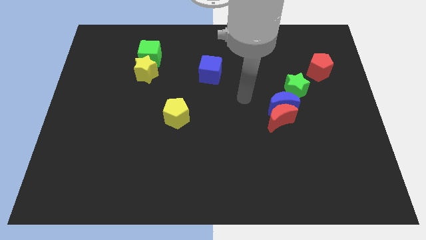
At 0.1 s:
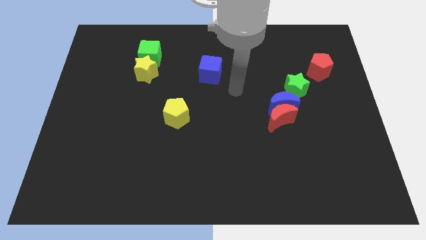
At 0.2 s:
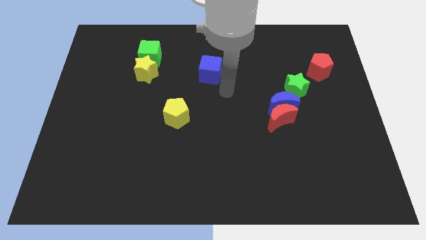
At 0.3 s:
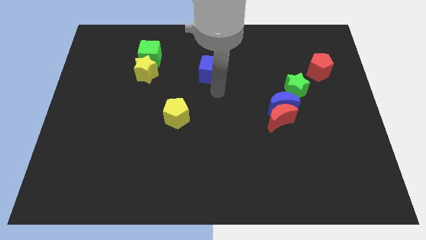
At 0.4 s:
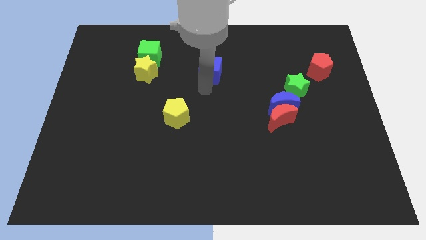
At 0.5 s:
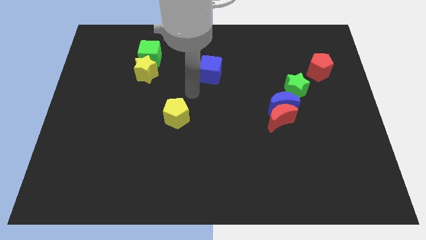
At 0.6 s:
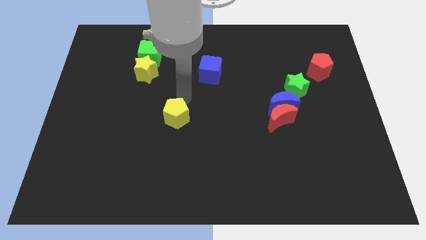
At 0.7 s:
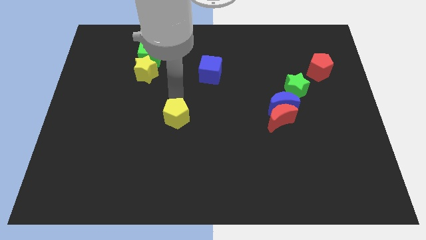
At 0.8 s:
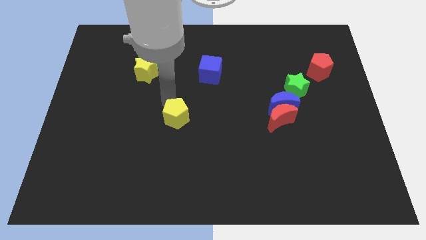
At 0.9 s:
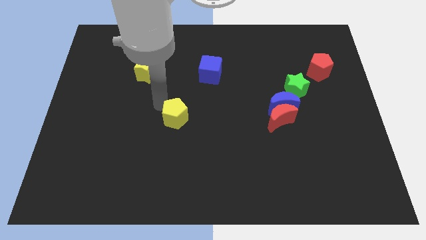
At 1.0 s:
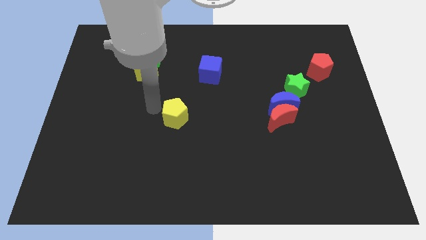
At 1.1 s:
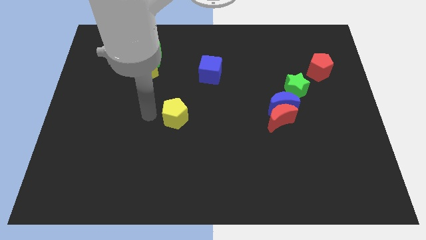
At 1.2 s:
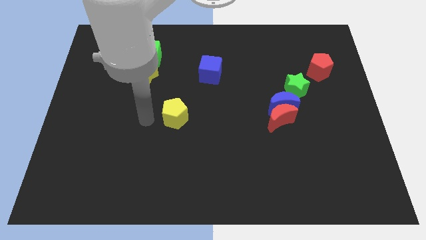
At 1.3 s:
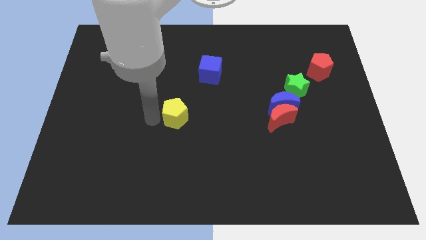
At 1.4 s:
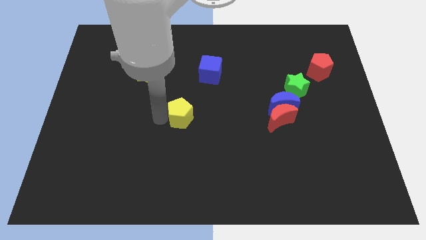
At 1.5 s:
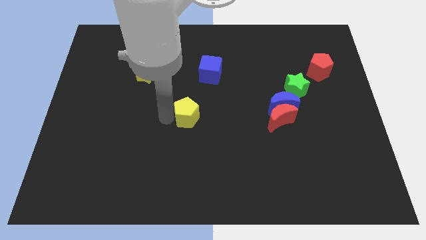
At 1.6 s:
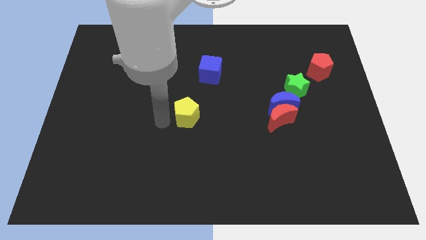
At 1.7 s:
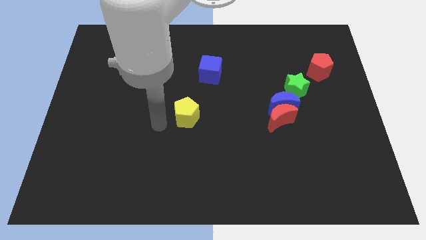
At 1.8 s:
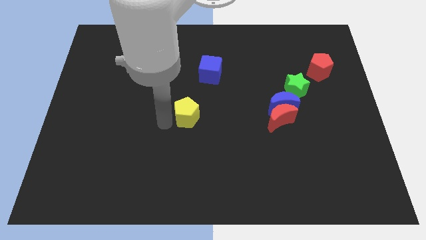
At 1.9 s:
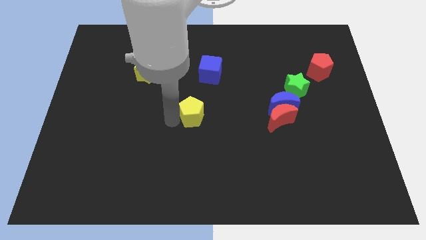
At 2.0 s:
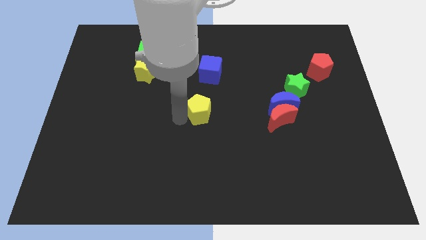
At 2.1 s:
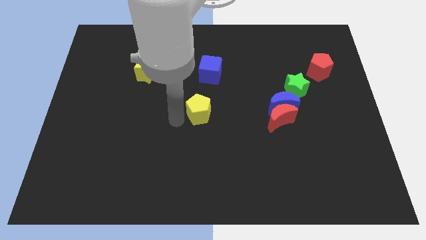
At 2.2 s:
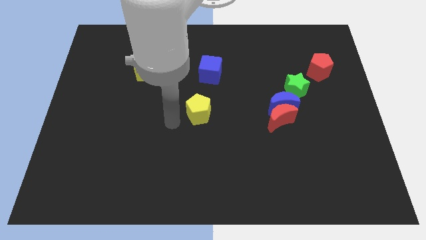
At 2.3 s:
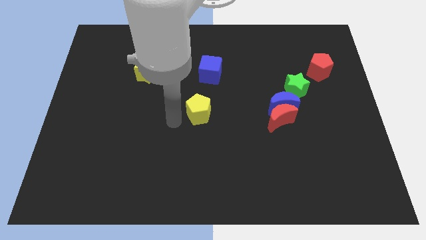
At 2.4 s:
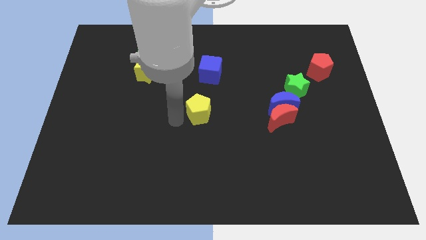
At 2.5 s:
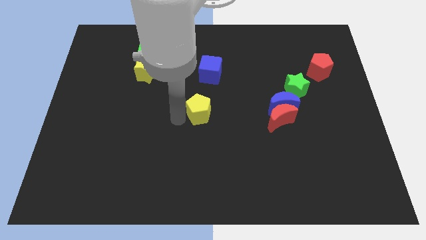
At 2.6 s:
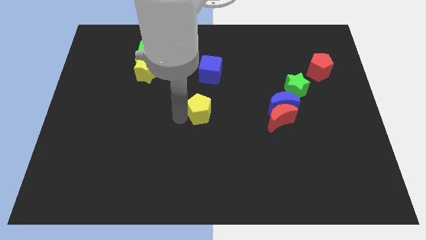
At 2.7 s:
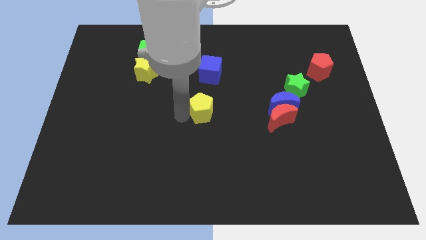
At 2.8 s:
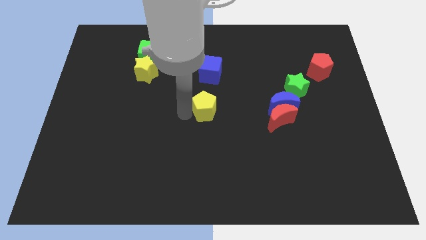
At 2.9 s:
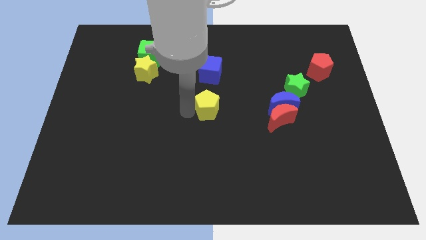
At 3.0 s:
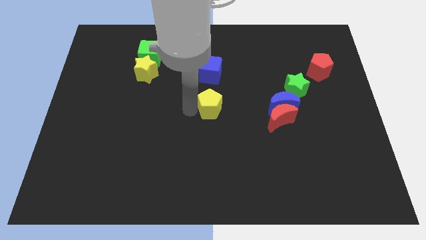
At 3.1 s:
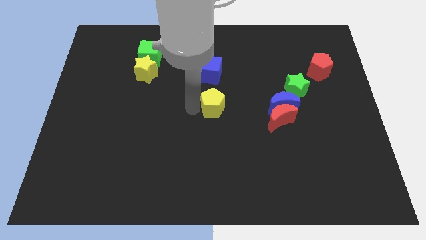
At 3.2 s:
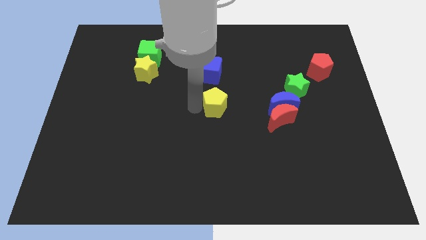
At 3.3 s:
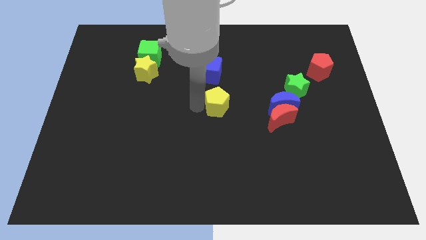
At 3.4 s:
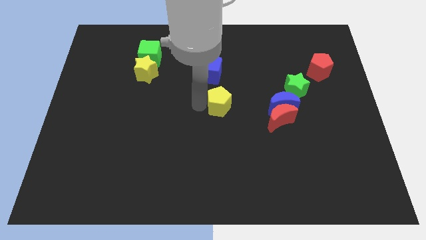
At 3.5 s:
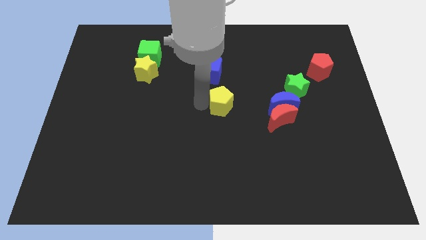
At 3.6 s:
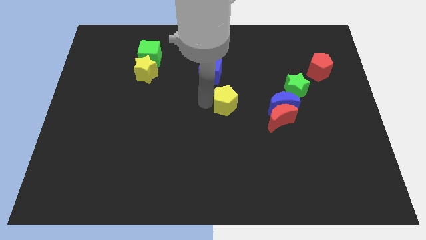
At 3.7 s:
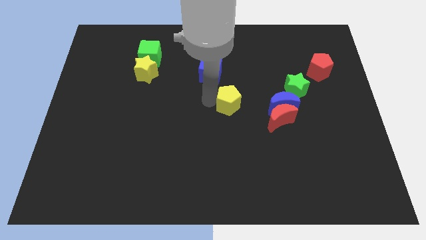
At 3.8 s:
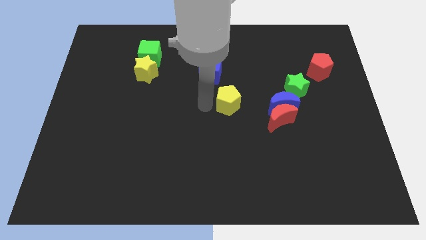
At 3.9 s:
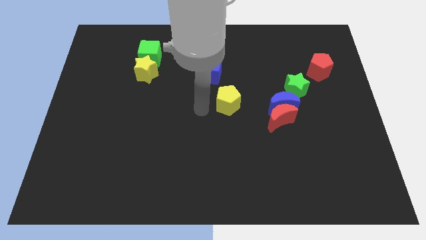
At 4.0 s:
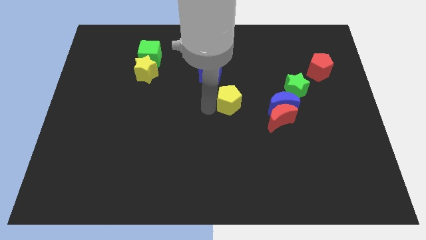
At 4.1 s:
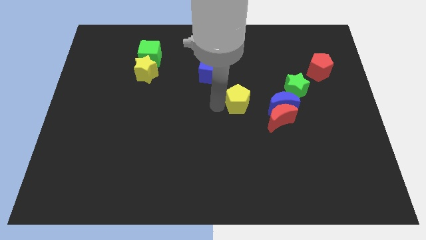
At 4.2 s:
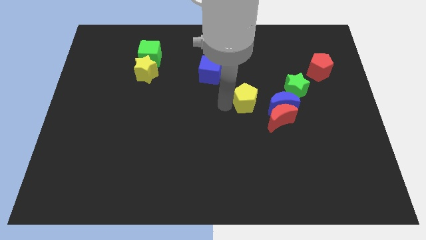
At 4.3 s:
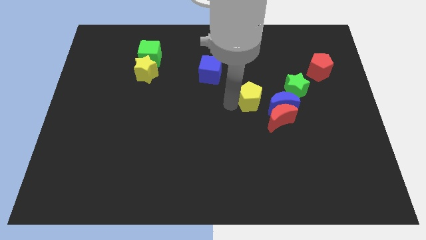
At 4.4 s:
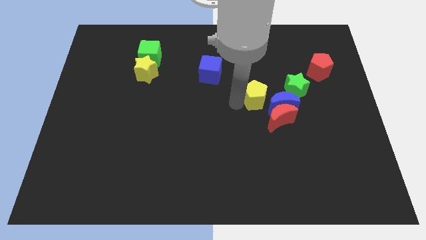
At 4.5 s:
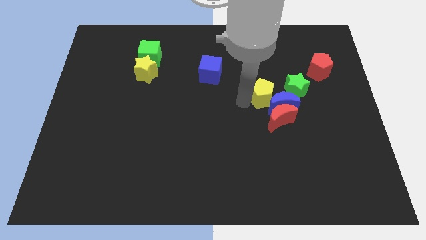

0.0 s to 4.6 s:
slide the yellow pentagon to the top of the red moon

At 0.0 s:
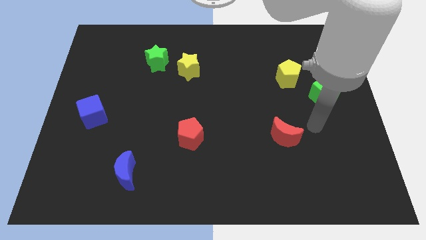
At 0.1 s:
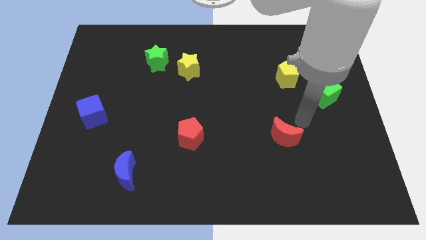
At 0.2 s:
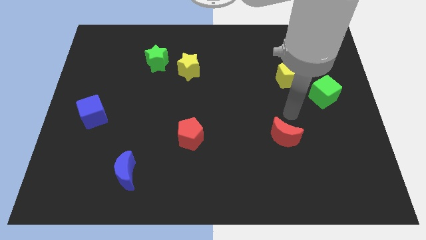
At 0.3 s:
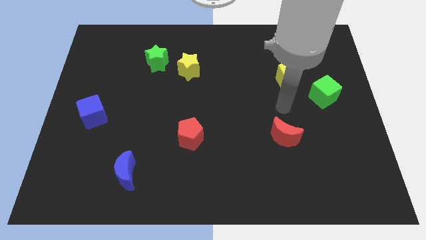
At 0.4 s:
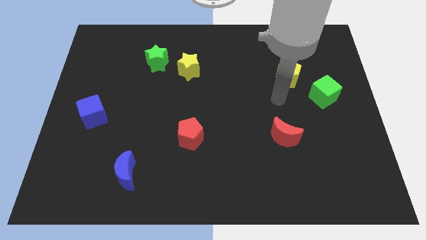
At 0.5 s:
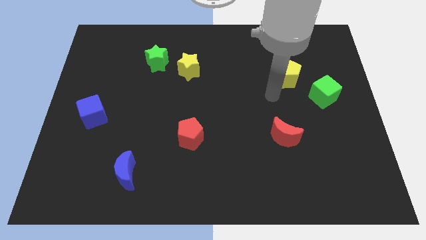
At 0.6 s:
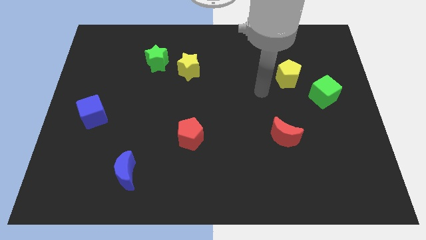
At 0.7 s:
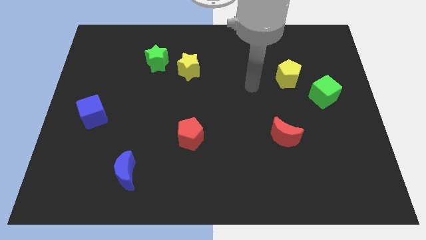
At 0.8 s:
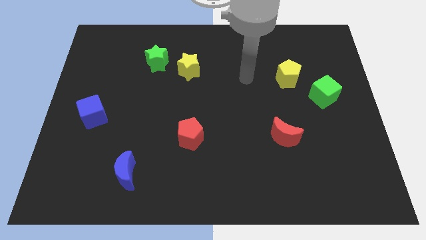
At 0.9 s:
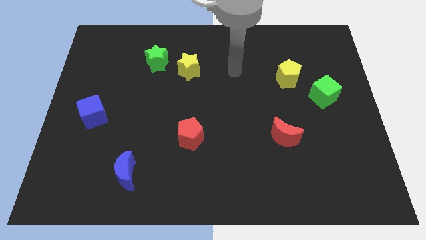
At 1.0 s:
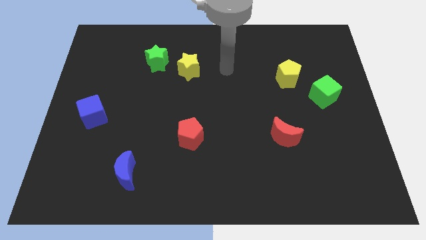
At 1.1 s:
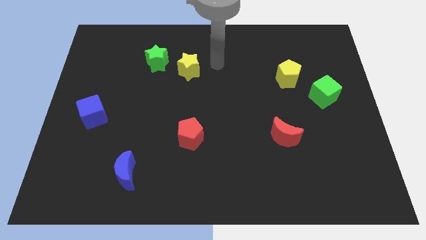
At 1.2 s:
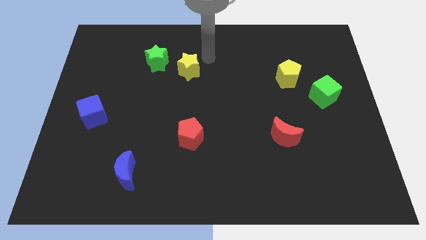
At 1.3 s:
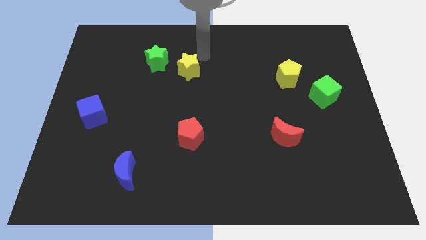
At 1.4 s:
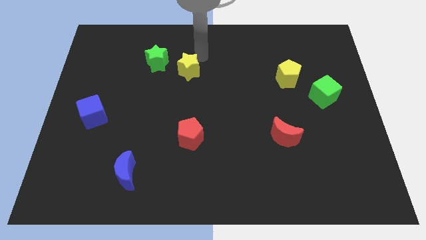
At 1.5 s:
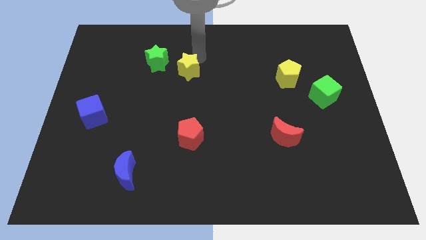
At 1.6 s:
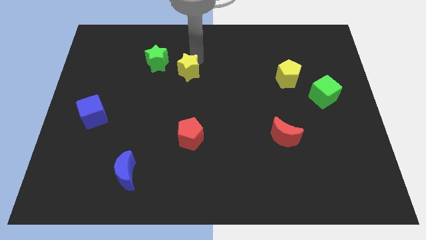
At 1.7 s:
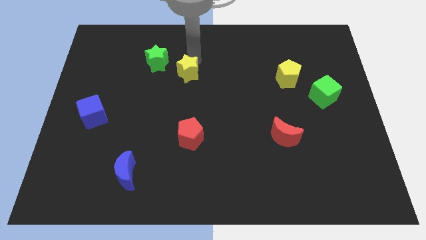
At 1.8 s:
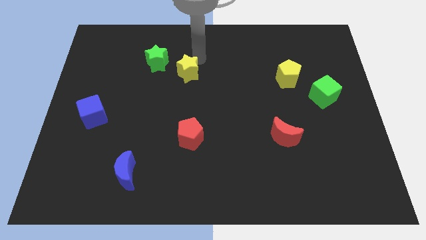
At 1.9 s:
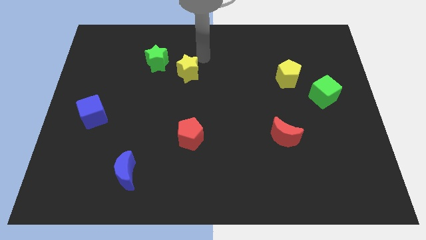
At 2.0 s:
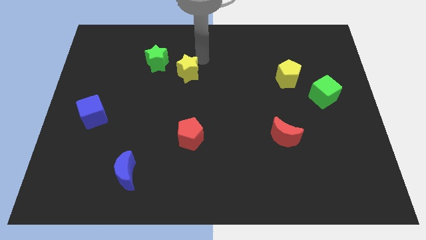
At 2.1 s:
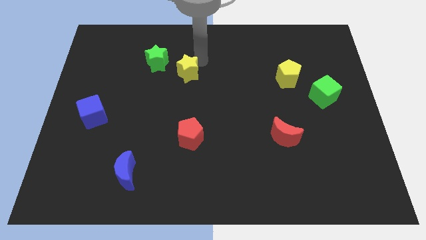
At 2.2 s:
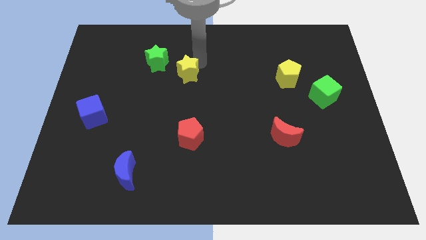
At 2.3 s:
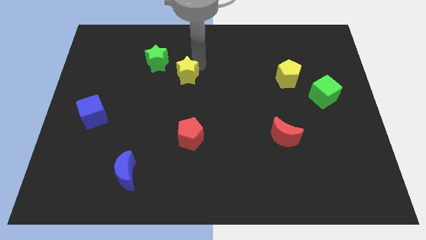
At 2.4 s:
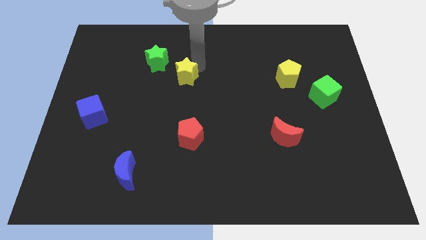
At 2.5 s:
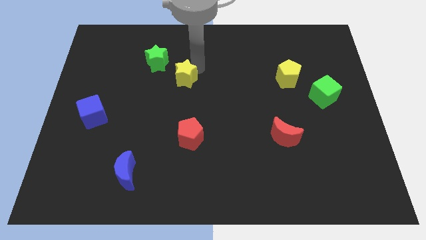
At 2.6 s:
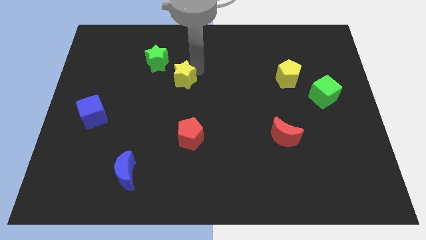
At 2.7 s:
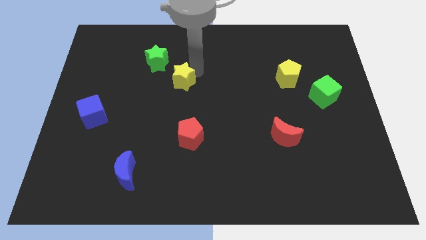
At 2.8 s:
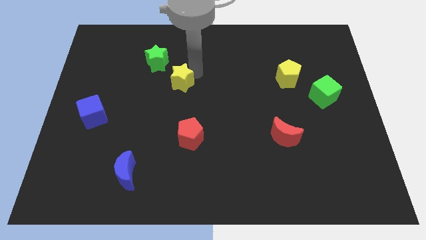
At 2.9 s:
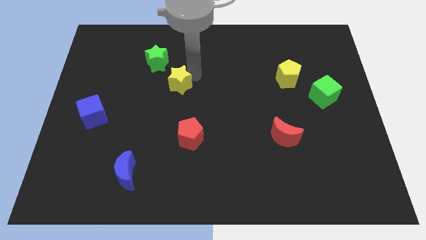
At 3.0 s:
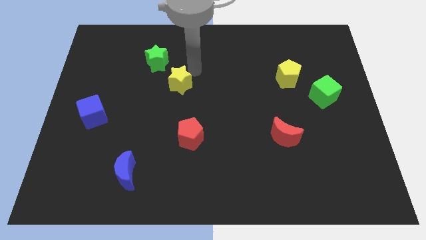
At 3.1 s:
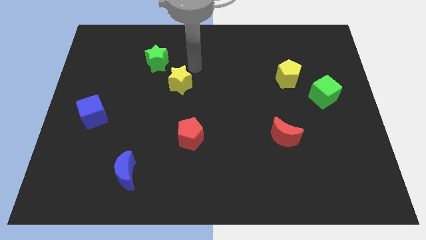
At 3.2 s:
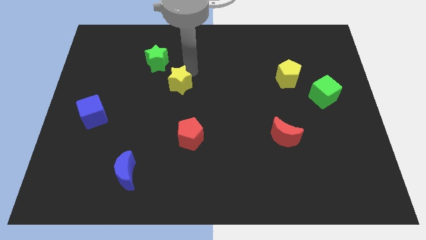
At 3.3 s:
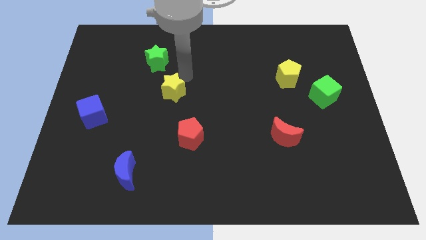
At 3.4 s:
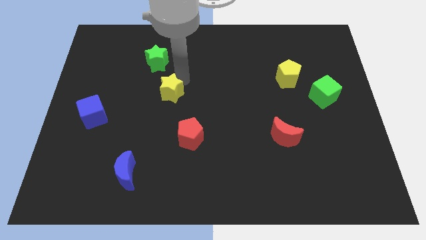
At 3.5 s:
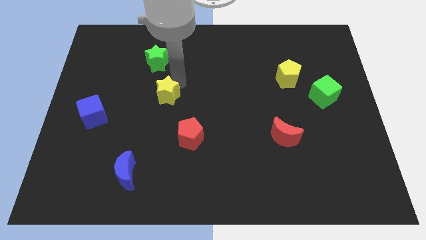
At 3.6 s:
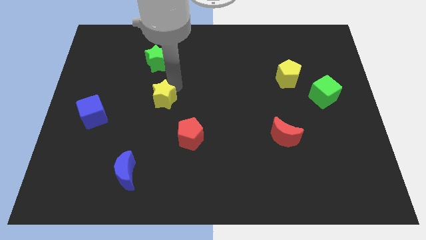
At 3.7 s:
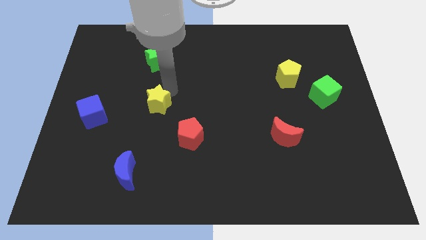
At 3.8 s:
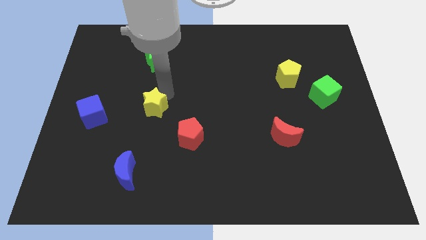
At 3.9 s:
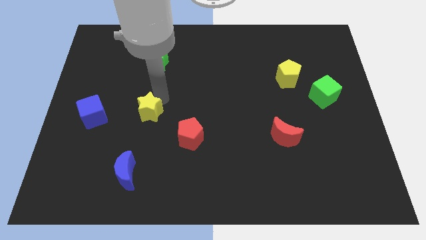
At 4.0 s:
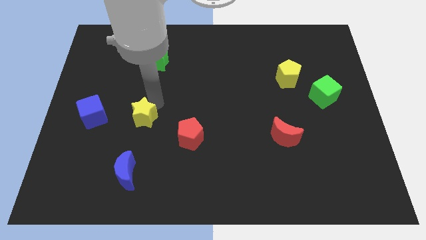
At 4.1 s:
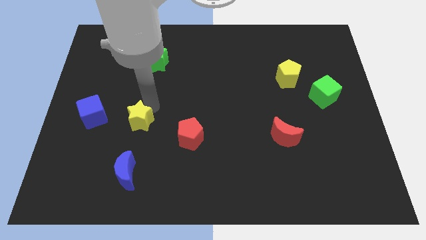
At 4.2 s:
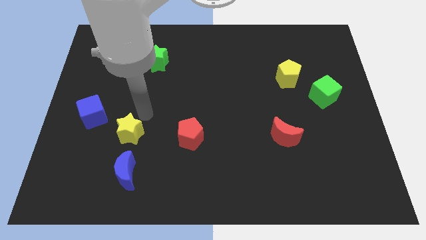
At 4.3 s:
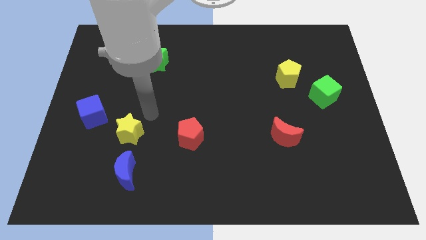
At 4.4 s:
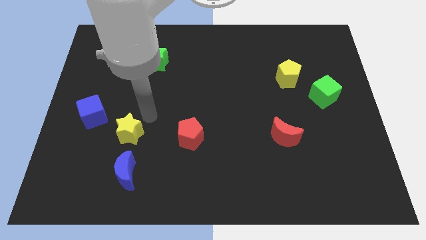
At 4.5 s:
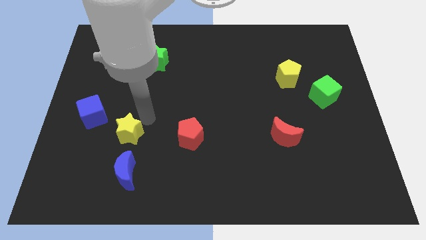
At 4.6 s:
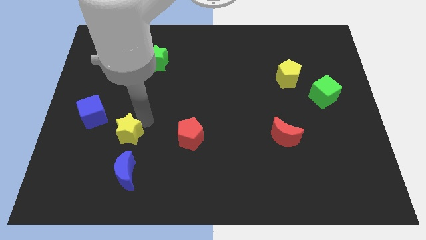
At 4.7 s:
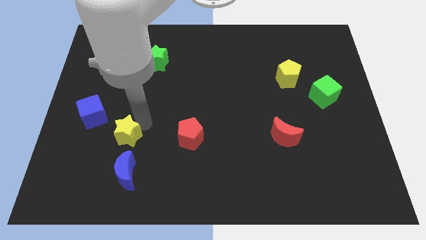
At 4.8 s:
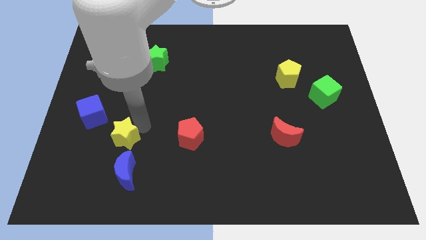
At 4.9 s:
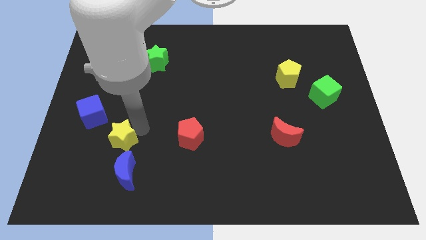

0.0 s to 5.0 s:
put the yellow star to the top left side of the blue moon
